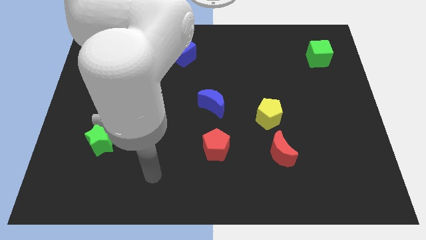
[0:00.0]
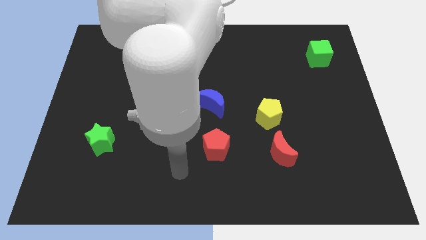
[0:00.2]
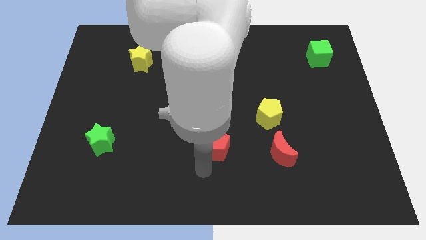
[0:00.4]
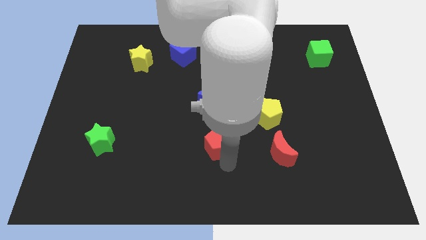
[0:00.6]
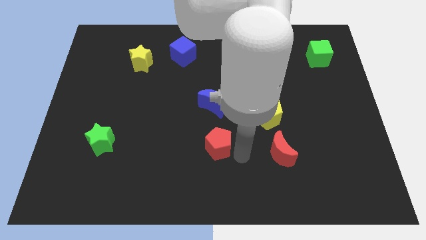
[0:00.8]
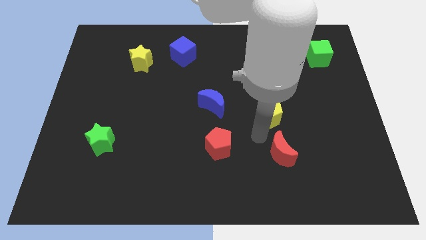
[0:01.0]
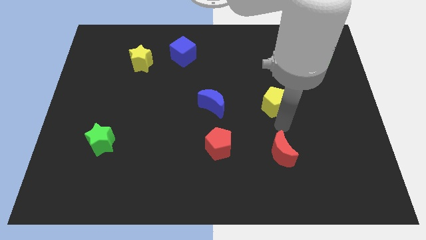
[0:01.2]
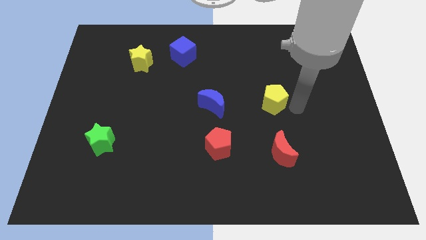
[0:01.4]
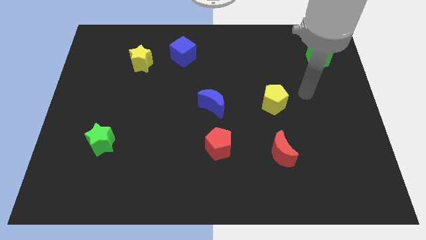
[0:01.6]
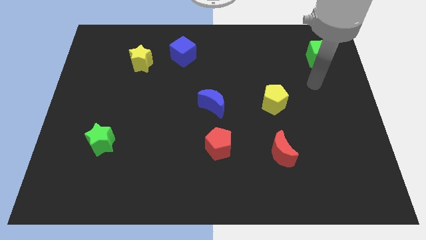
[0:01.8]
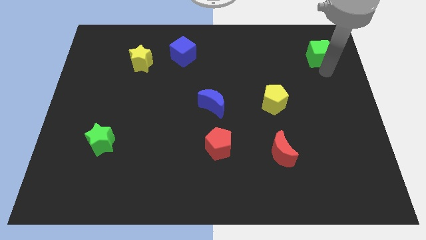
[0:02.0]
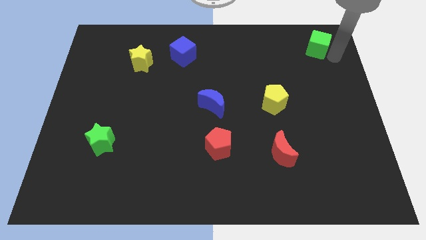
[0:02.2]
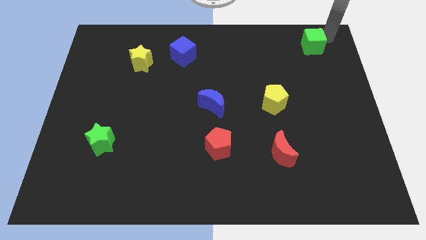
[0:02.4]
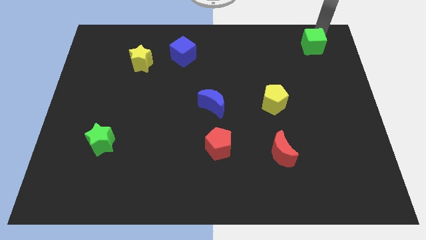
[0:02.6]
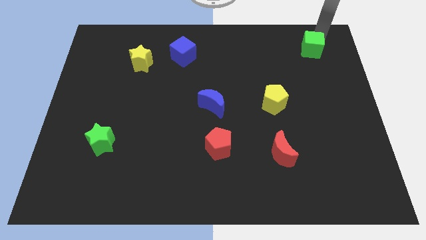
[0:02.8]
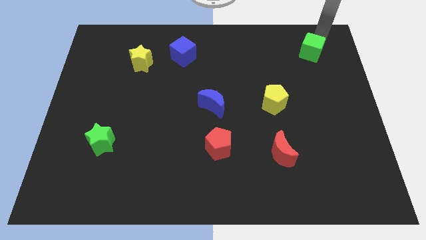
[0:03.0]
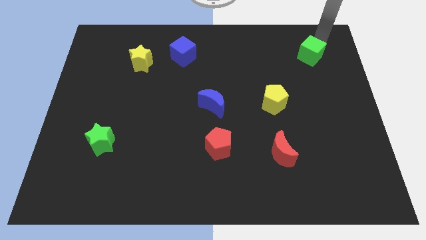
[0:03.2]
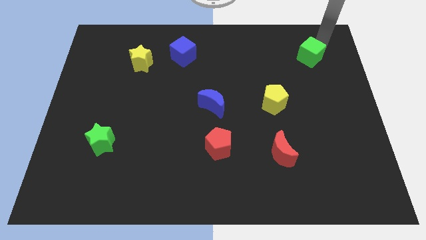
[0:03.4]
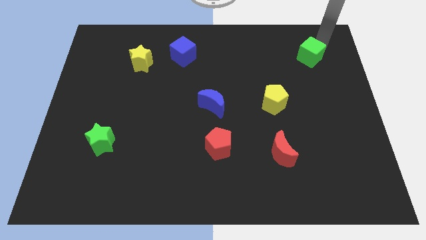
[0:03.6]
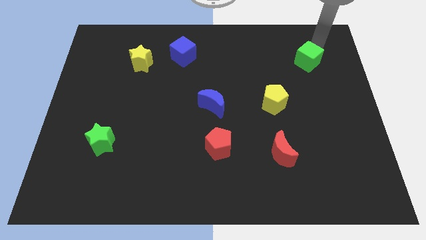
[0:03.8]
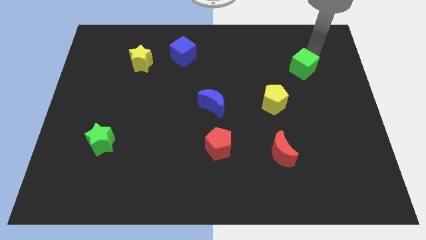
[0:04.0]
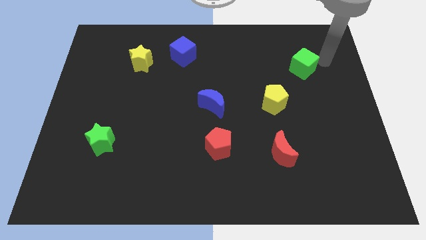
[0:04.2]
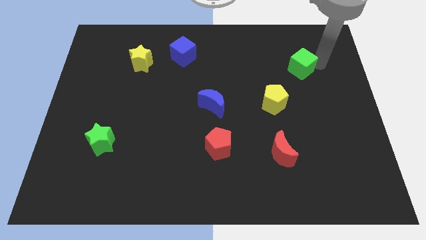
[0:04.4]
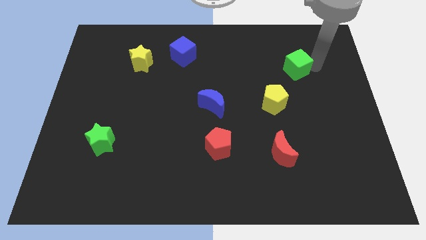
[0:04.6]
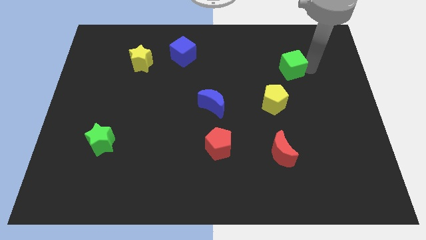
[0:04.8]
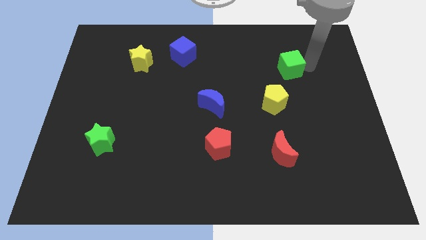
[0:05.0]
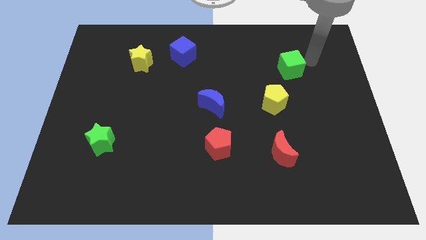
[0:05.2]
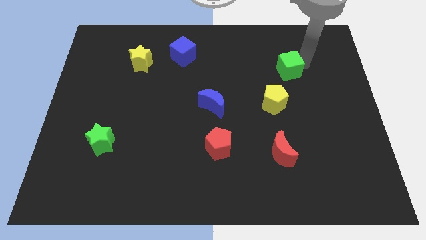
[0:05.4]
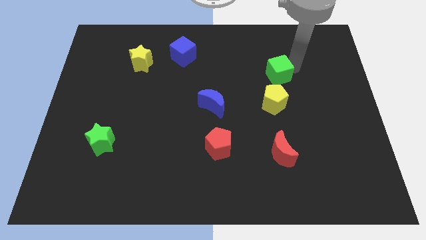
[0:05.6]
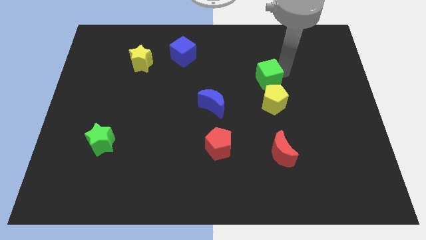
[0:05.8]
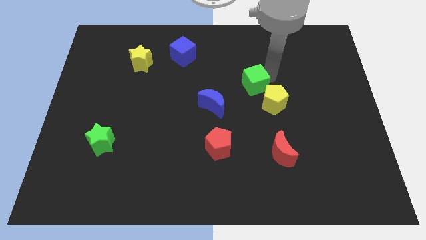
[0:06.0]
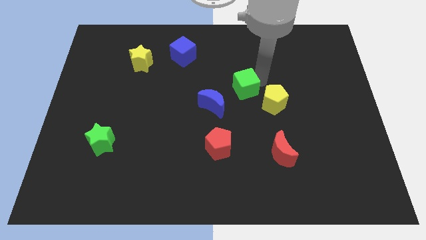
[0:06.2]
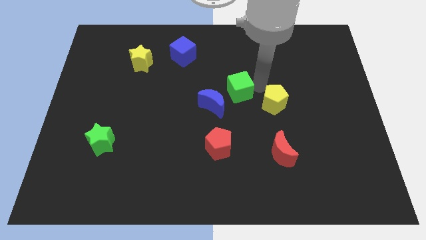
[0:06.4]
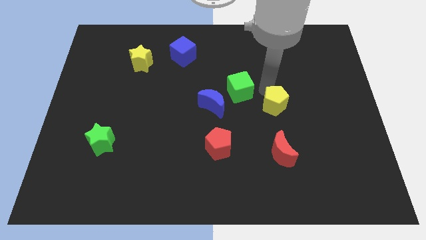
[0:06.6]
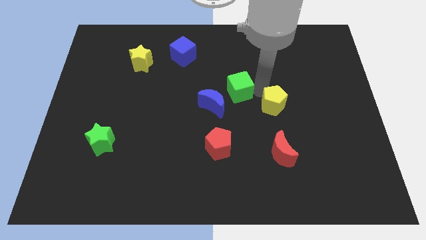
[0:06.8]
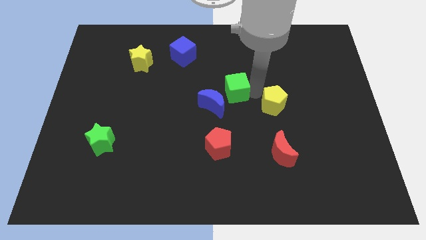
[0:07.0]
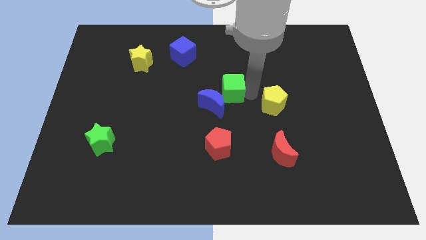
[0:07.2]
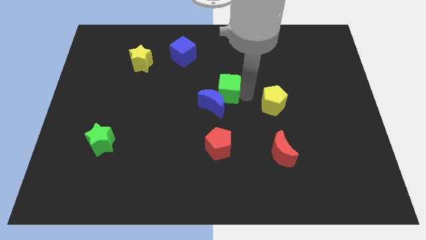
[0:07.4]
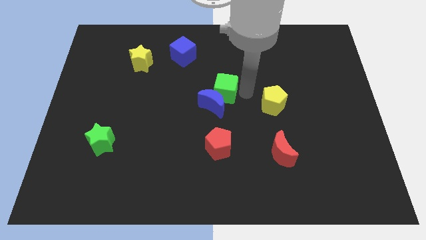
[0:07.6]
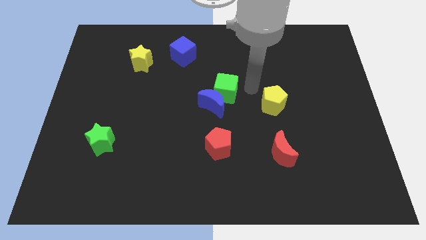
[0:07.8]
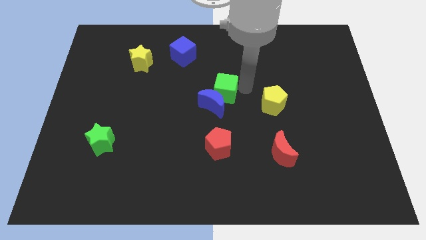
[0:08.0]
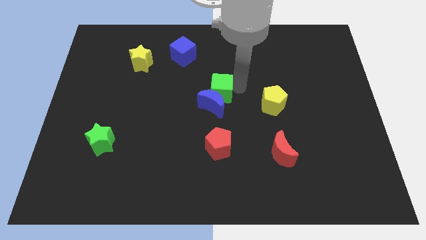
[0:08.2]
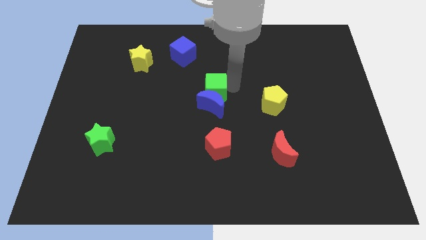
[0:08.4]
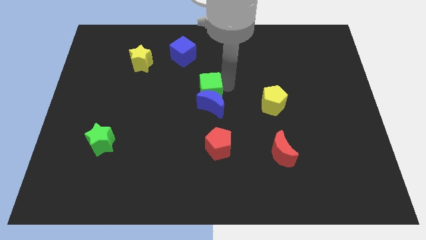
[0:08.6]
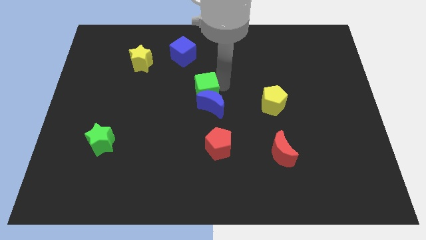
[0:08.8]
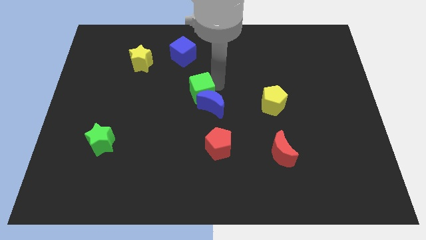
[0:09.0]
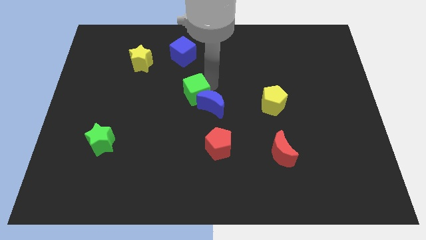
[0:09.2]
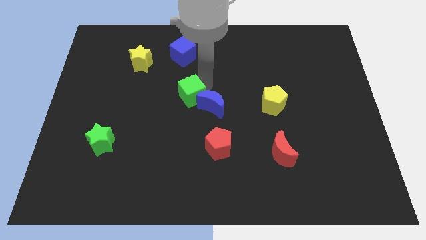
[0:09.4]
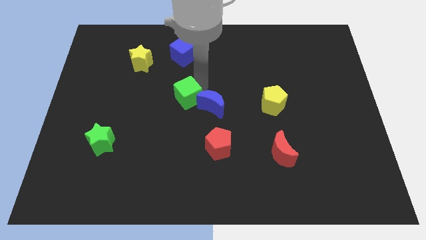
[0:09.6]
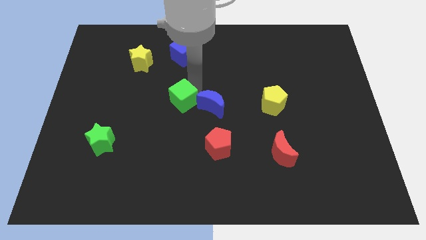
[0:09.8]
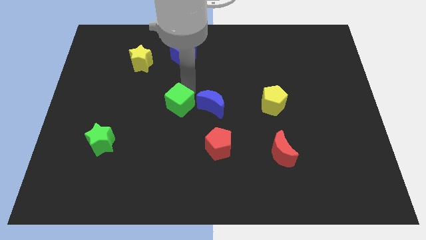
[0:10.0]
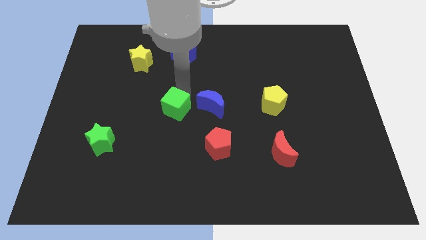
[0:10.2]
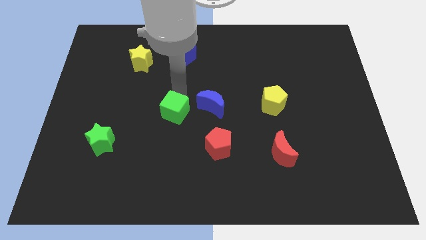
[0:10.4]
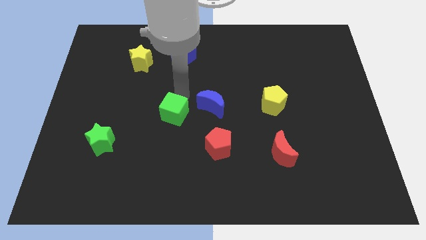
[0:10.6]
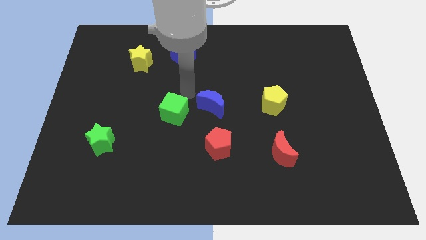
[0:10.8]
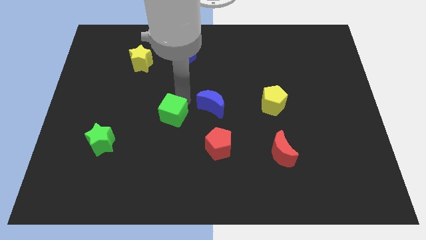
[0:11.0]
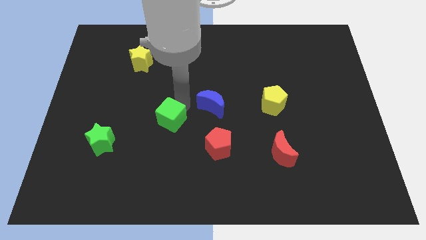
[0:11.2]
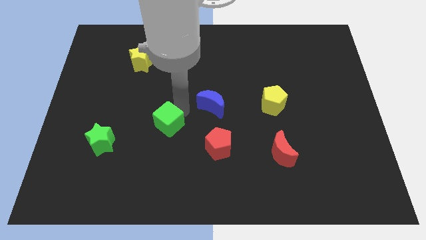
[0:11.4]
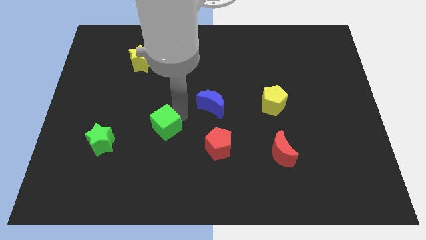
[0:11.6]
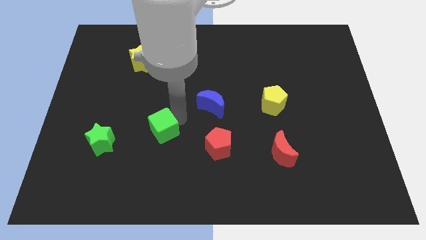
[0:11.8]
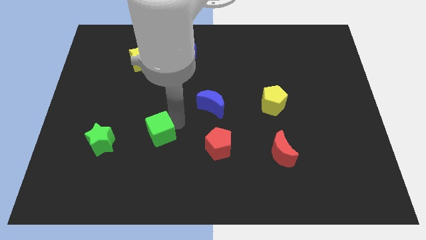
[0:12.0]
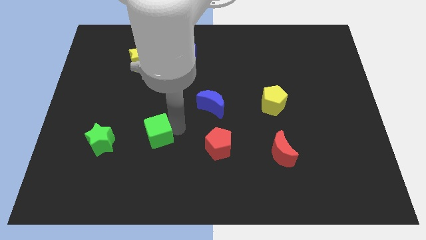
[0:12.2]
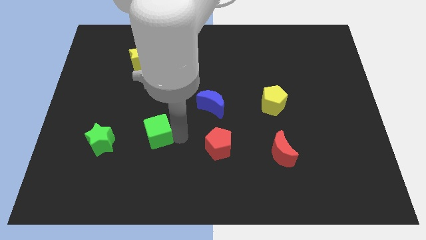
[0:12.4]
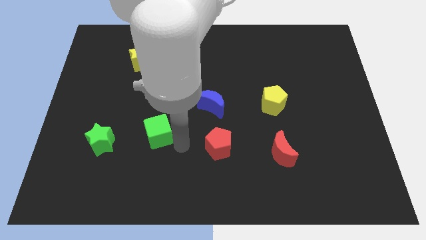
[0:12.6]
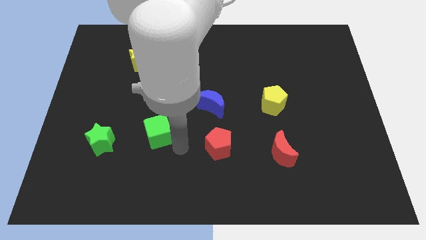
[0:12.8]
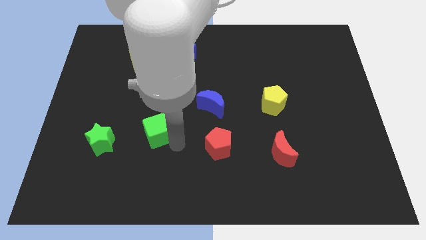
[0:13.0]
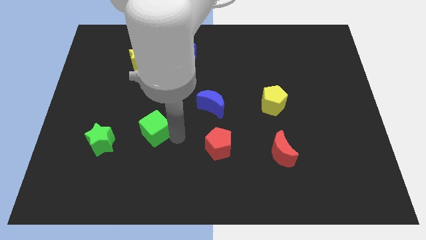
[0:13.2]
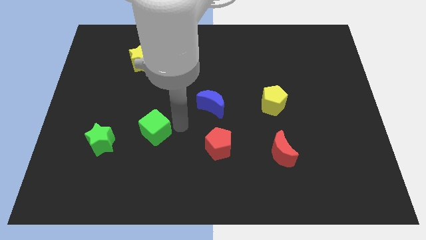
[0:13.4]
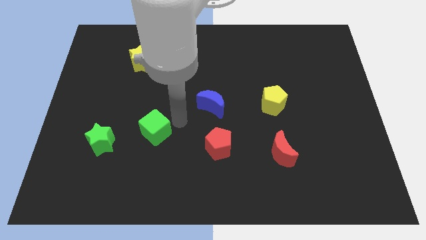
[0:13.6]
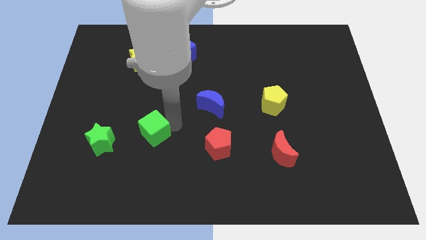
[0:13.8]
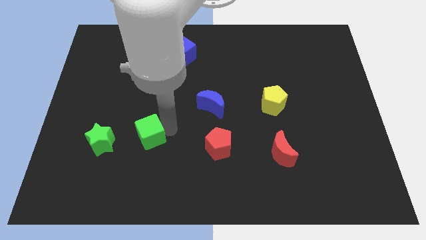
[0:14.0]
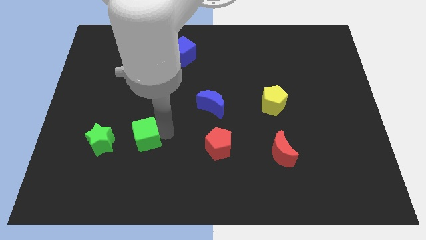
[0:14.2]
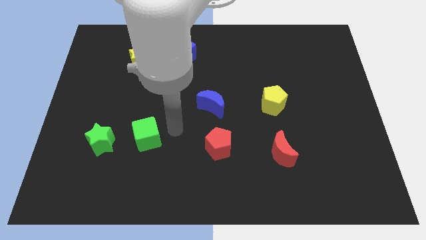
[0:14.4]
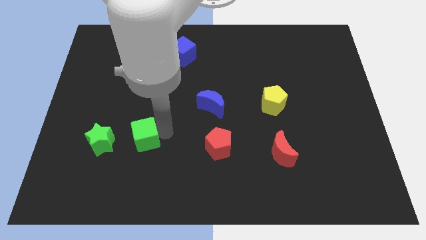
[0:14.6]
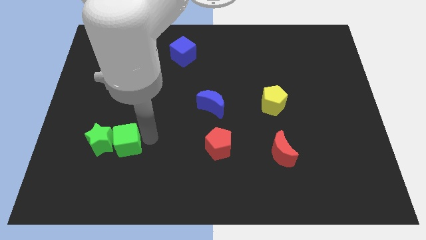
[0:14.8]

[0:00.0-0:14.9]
put the green cube towards the green star
